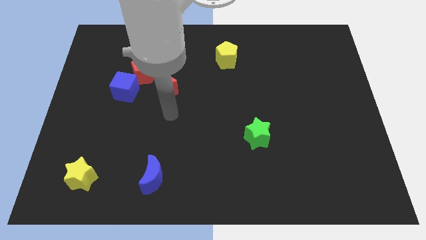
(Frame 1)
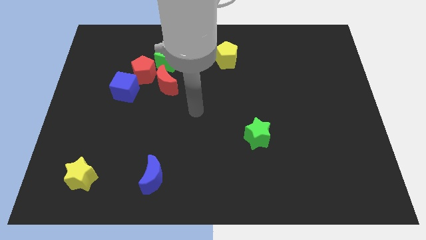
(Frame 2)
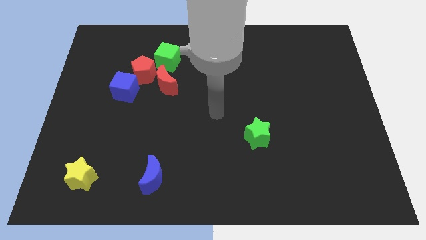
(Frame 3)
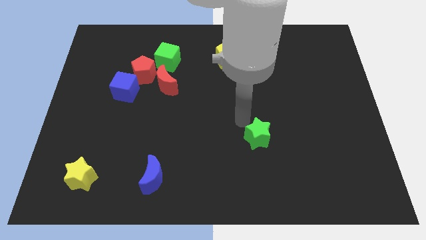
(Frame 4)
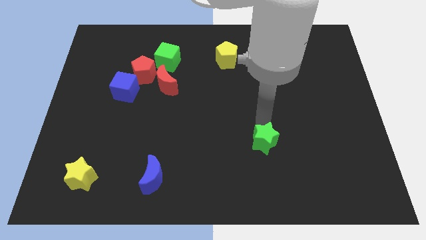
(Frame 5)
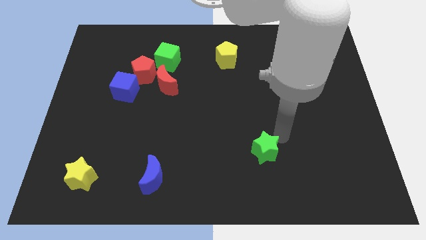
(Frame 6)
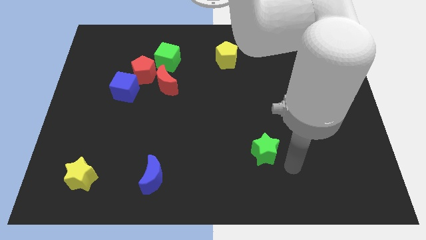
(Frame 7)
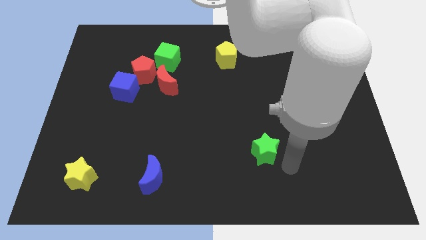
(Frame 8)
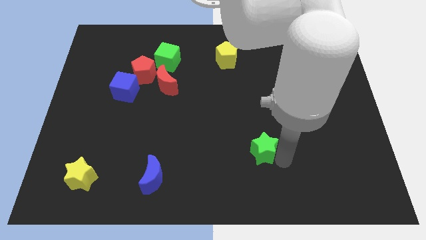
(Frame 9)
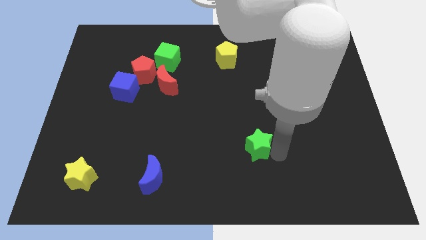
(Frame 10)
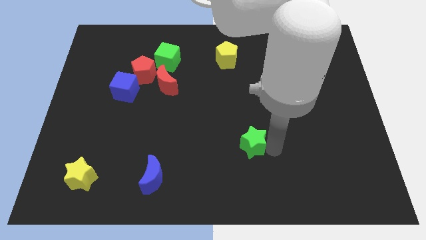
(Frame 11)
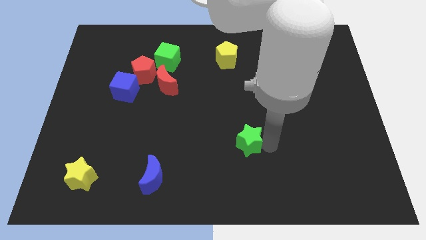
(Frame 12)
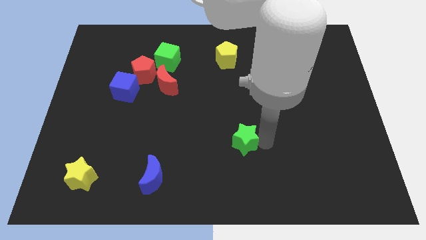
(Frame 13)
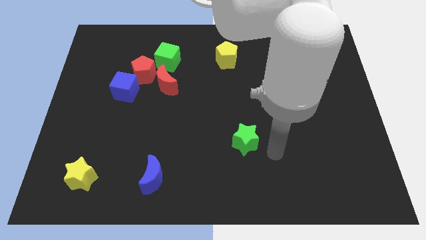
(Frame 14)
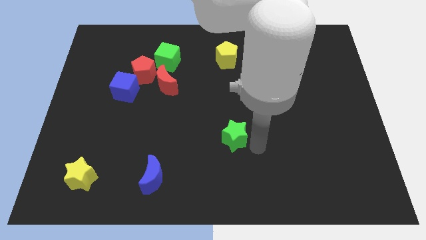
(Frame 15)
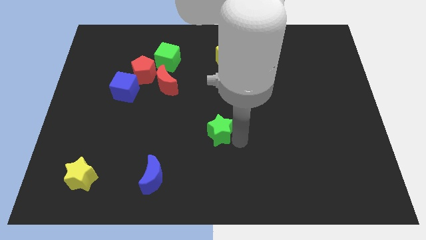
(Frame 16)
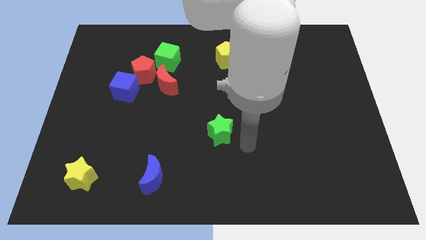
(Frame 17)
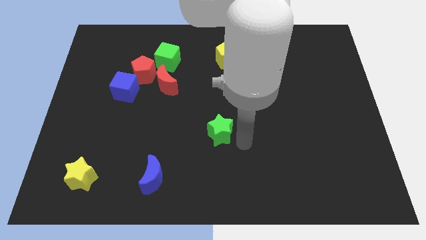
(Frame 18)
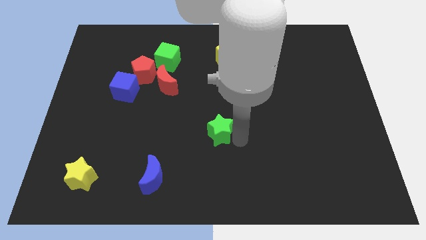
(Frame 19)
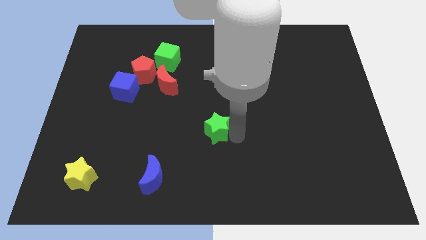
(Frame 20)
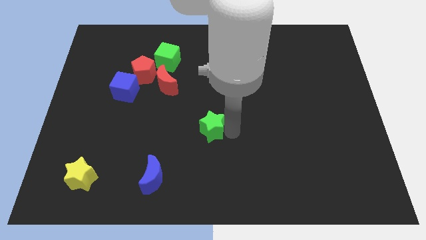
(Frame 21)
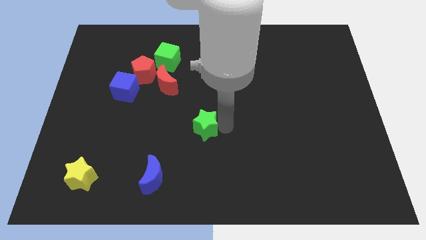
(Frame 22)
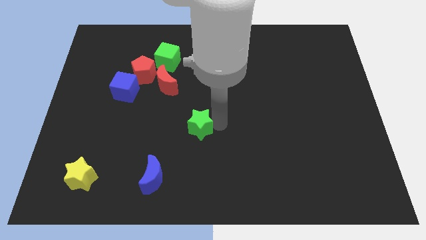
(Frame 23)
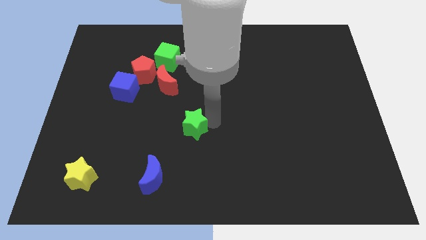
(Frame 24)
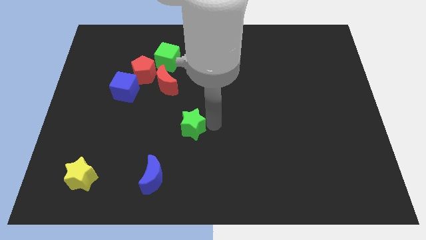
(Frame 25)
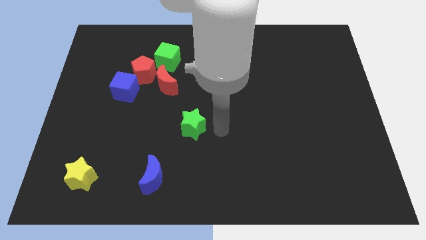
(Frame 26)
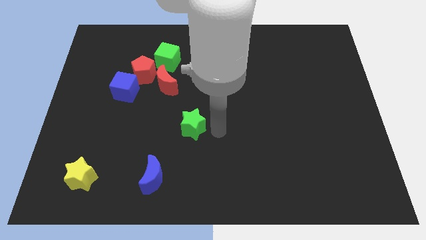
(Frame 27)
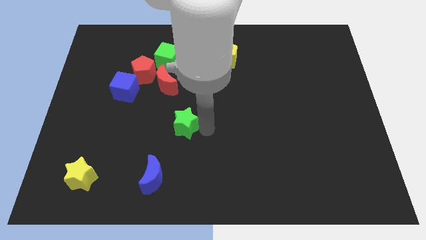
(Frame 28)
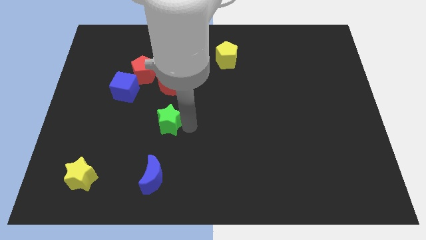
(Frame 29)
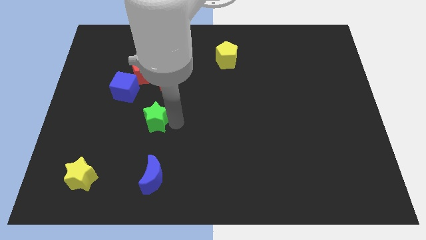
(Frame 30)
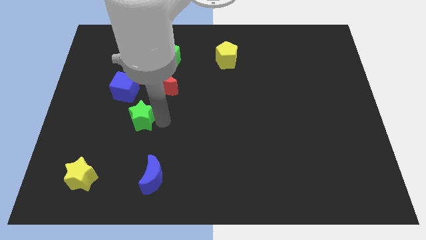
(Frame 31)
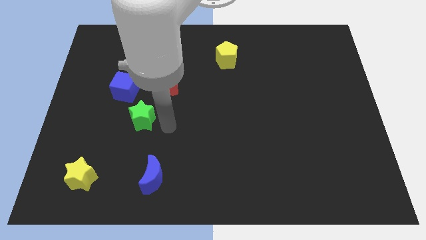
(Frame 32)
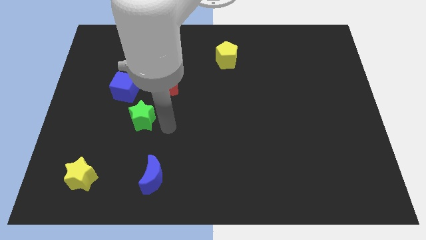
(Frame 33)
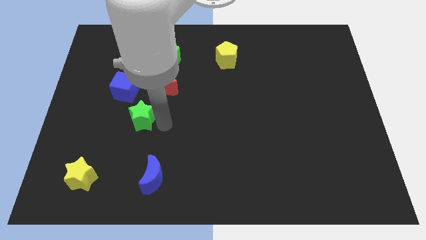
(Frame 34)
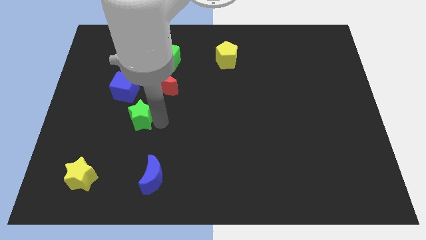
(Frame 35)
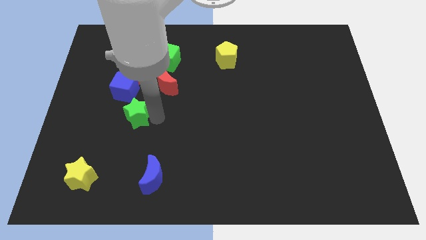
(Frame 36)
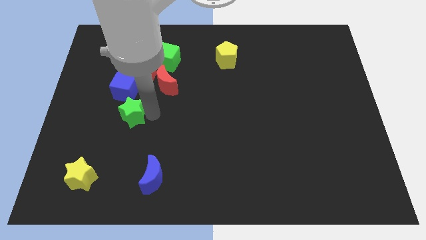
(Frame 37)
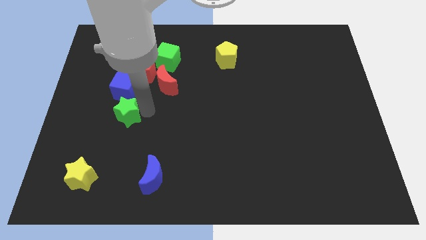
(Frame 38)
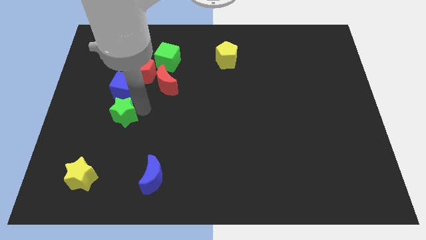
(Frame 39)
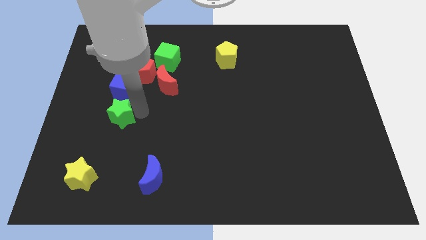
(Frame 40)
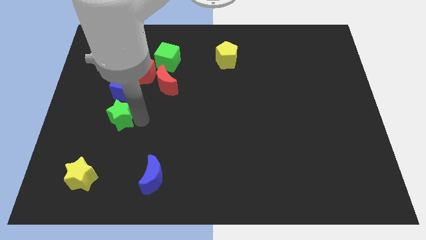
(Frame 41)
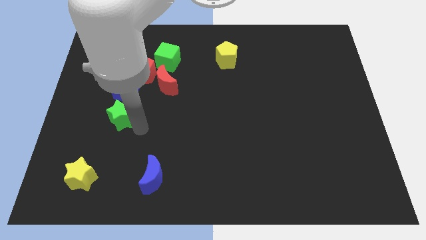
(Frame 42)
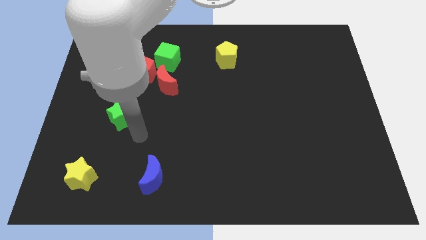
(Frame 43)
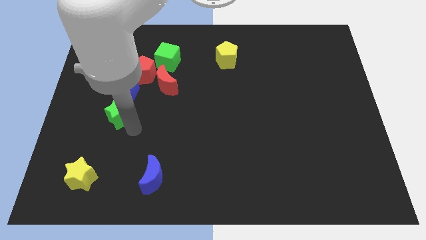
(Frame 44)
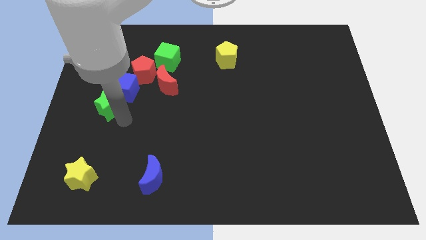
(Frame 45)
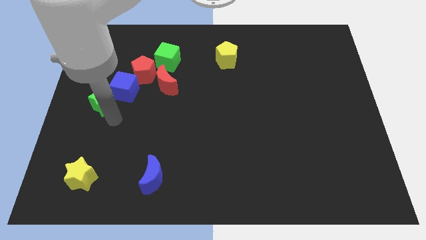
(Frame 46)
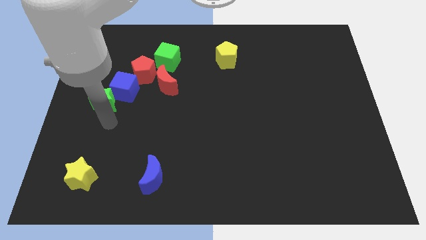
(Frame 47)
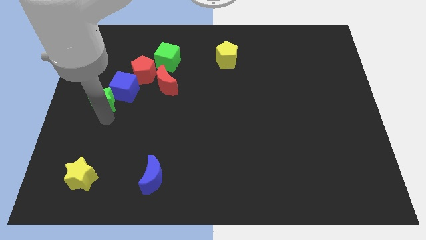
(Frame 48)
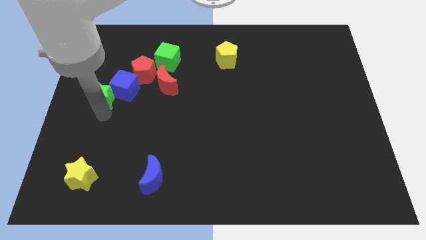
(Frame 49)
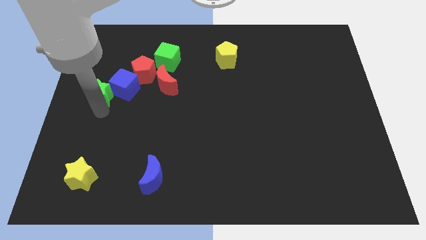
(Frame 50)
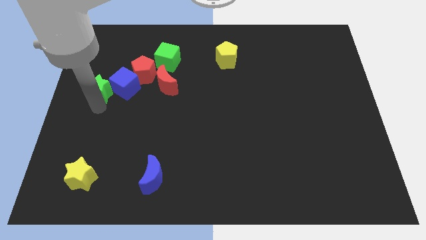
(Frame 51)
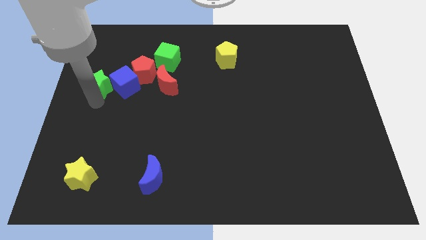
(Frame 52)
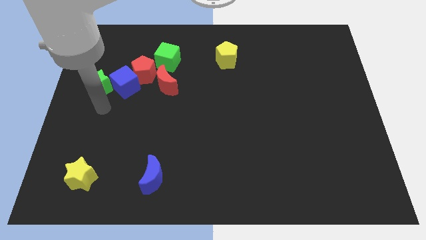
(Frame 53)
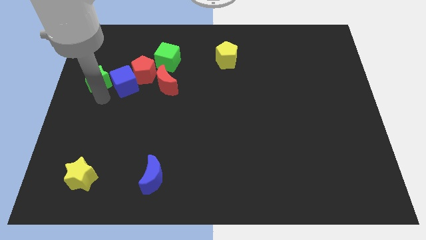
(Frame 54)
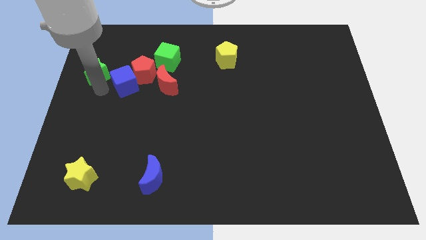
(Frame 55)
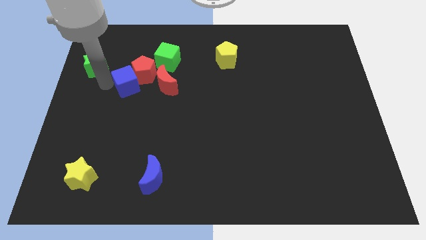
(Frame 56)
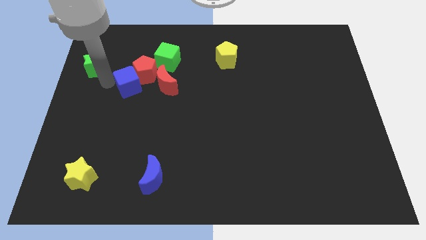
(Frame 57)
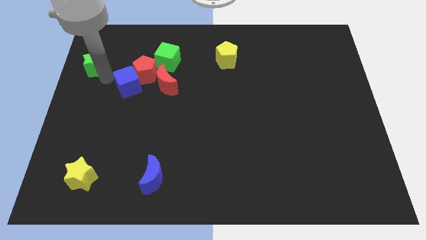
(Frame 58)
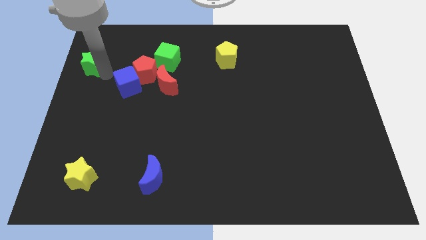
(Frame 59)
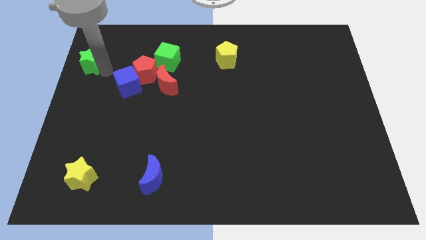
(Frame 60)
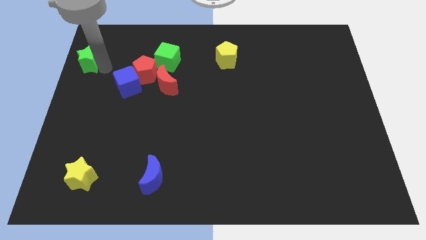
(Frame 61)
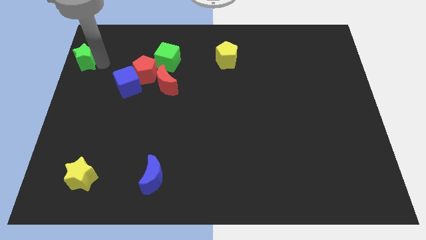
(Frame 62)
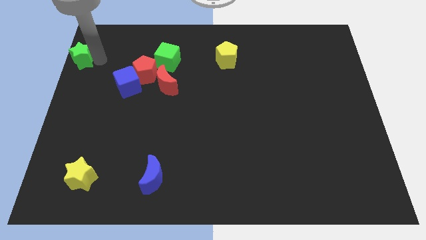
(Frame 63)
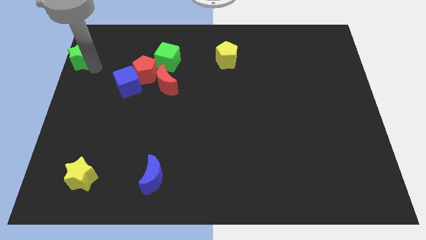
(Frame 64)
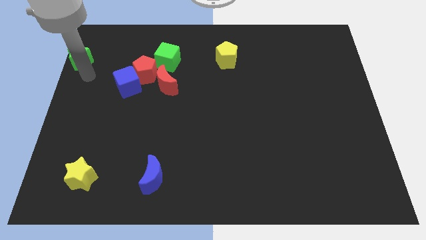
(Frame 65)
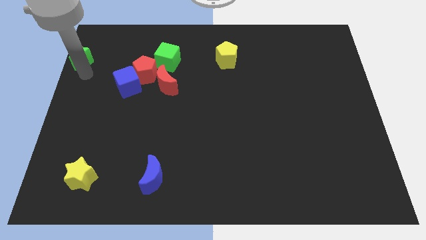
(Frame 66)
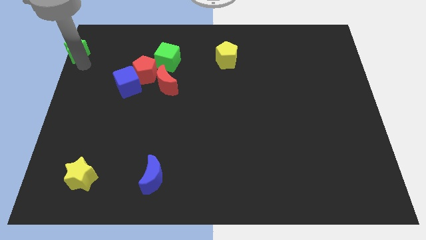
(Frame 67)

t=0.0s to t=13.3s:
move the green star to the top left

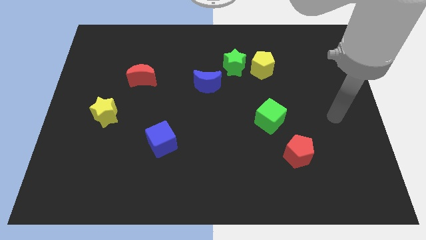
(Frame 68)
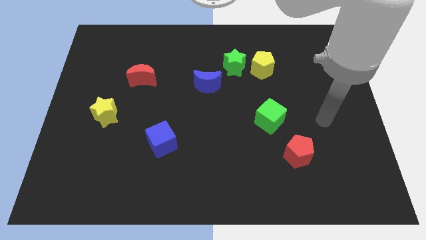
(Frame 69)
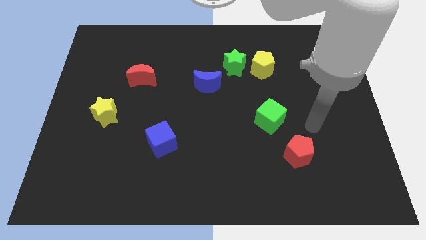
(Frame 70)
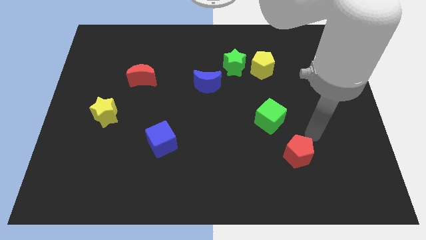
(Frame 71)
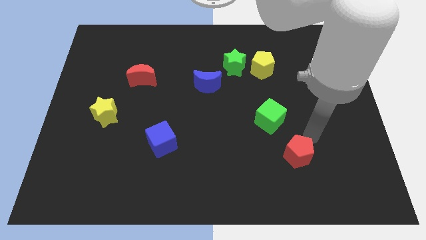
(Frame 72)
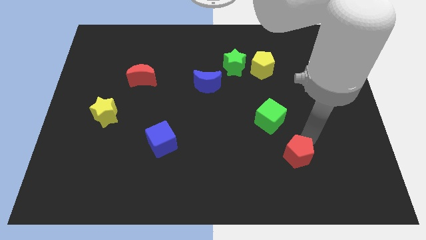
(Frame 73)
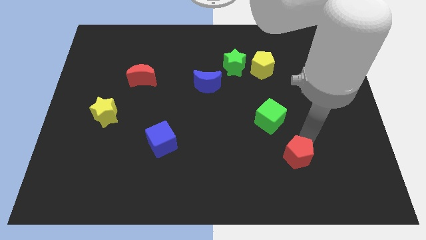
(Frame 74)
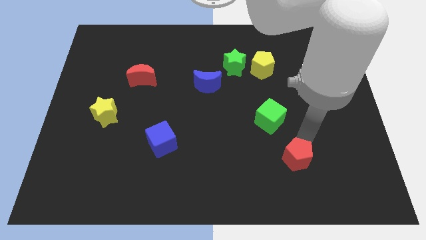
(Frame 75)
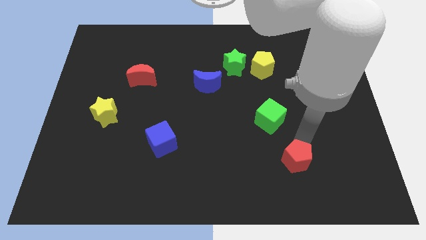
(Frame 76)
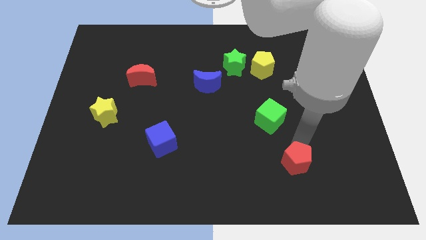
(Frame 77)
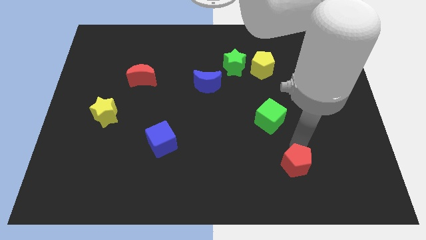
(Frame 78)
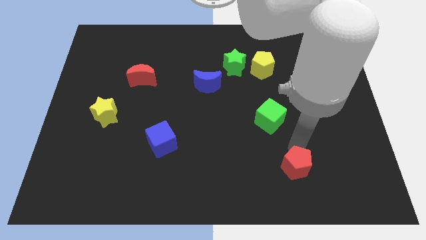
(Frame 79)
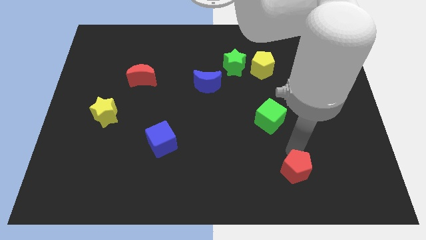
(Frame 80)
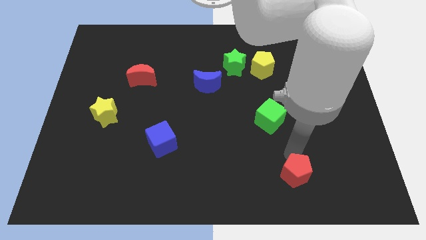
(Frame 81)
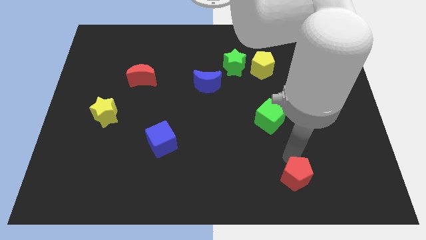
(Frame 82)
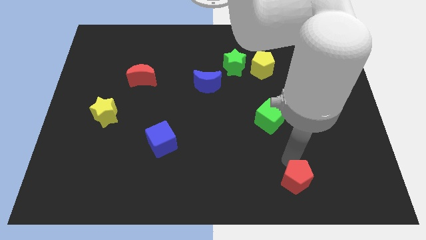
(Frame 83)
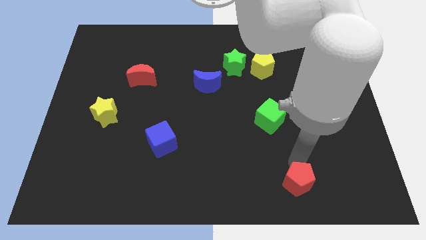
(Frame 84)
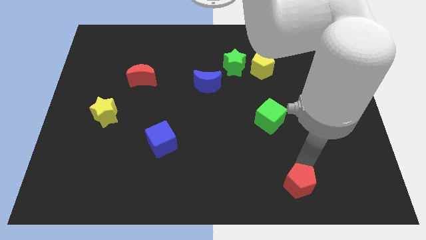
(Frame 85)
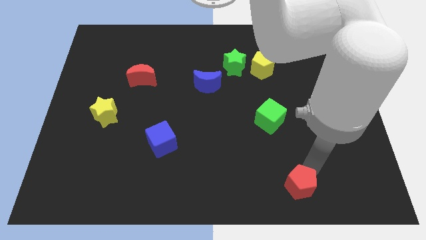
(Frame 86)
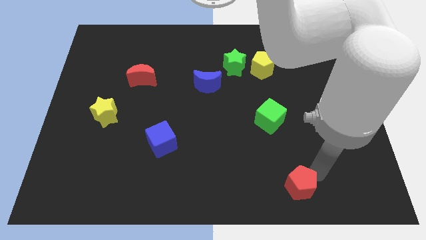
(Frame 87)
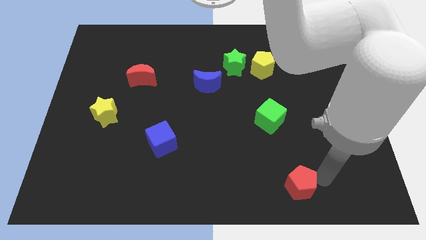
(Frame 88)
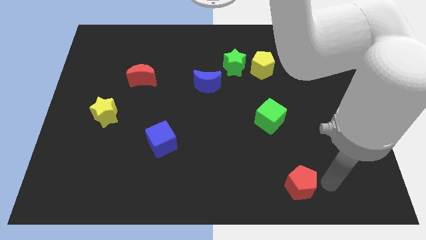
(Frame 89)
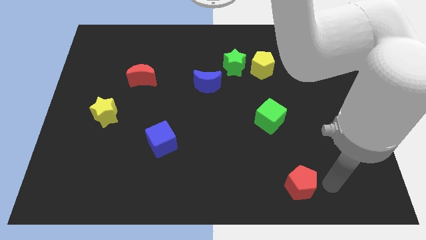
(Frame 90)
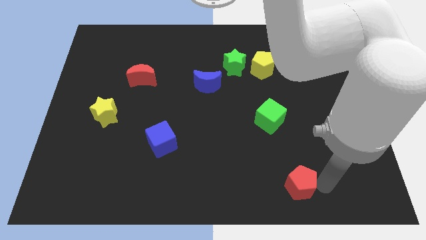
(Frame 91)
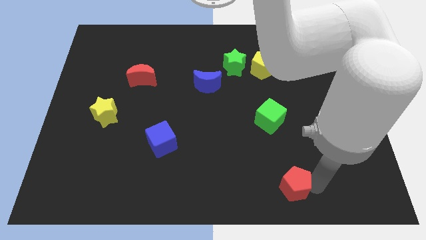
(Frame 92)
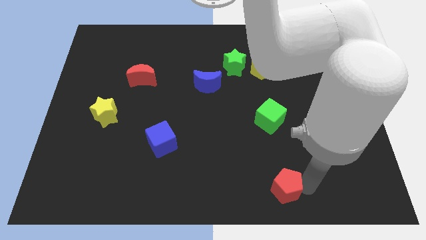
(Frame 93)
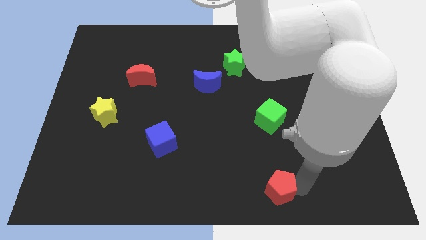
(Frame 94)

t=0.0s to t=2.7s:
push the red pentagon to the bottom side
